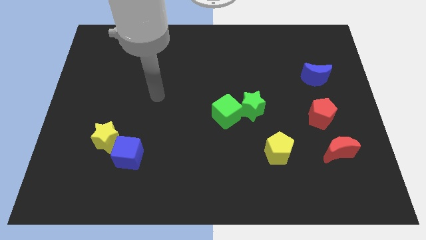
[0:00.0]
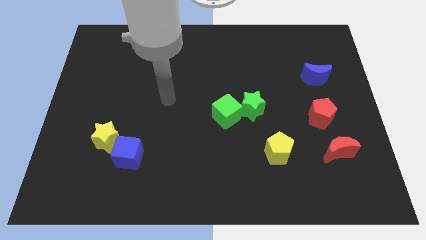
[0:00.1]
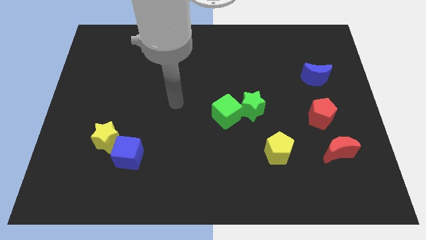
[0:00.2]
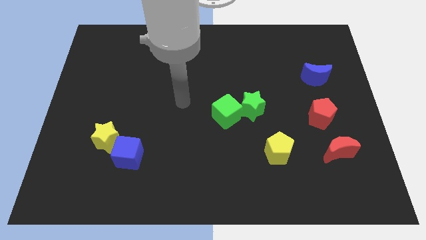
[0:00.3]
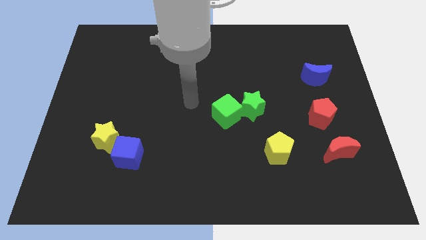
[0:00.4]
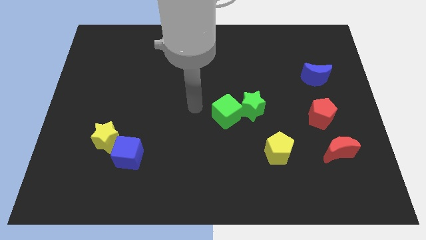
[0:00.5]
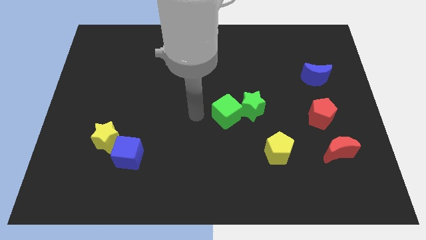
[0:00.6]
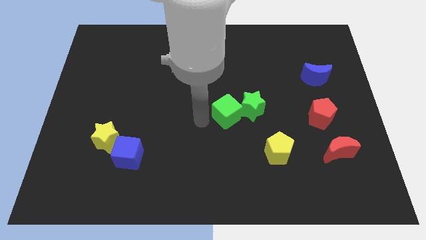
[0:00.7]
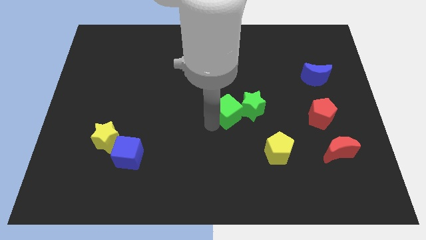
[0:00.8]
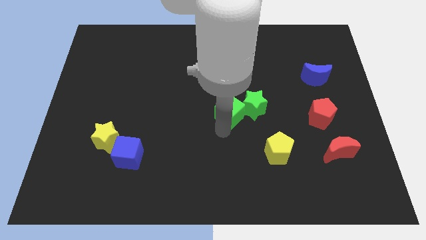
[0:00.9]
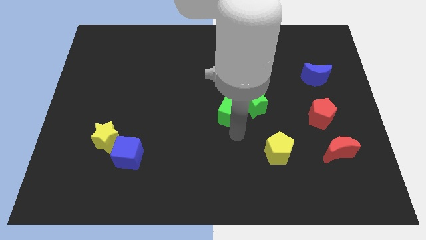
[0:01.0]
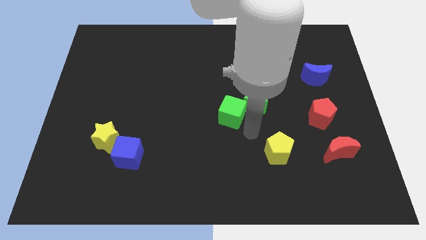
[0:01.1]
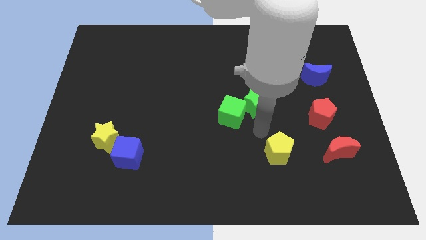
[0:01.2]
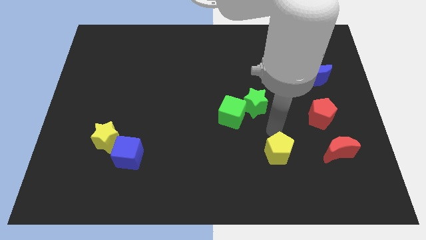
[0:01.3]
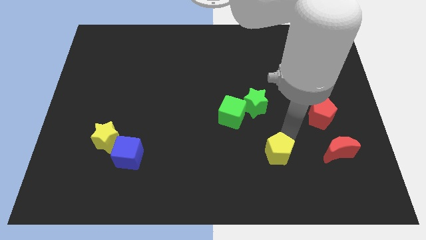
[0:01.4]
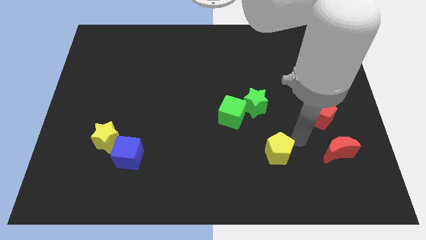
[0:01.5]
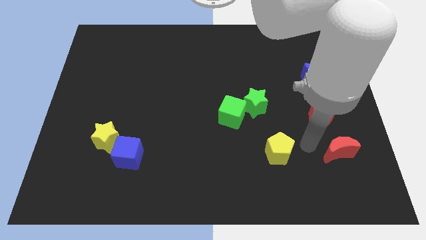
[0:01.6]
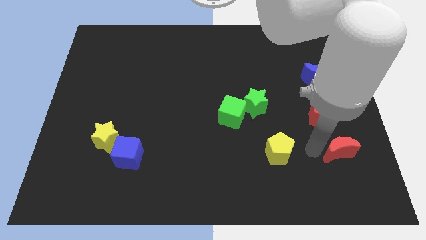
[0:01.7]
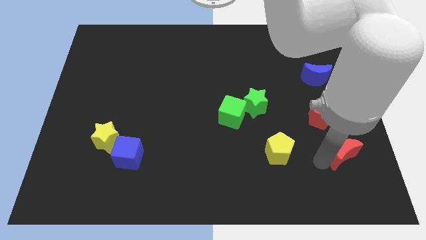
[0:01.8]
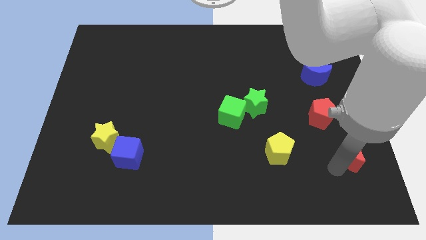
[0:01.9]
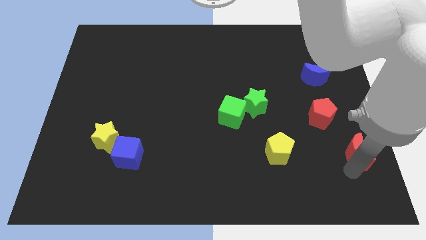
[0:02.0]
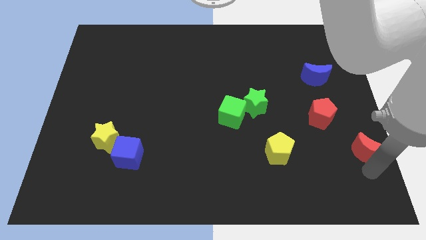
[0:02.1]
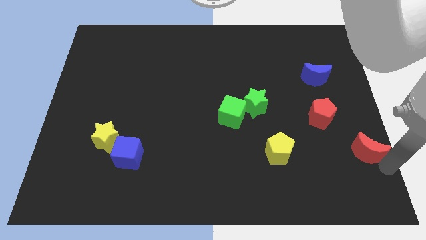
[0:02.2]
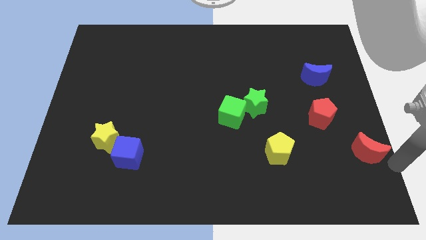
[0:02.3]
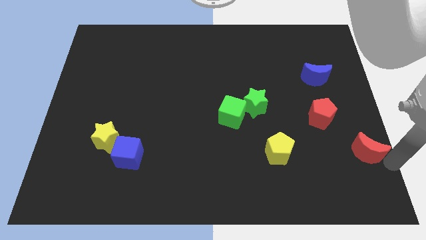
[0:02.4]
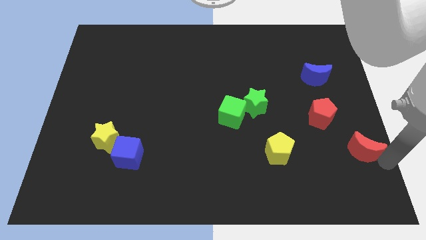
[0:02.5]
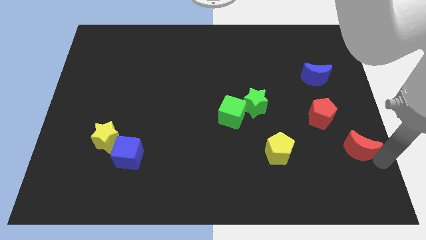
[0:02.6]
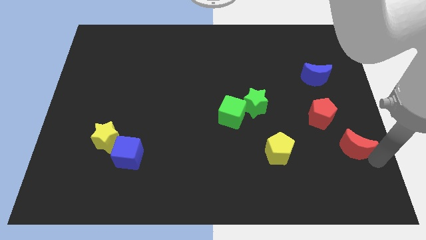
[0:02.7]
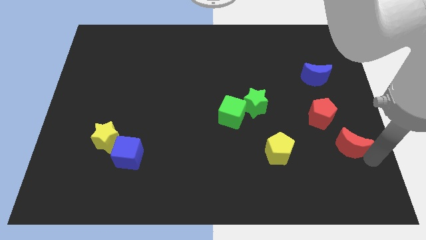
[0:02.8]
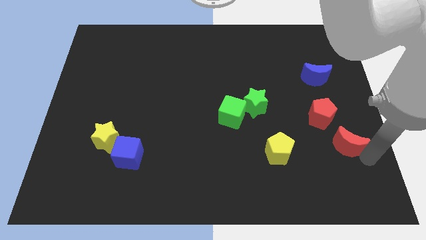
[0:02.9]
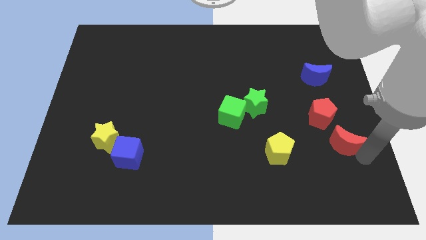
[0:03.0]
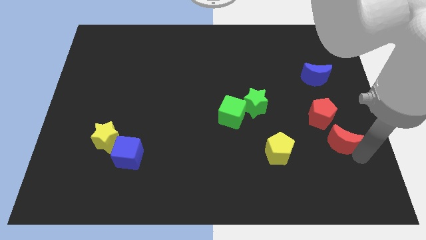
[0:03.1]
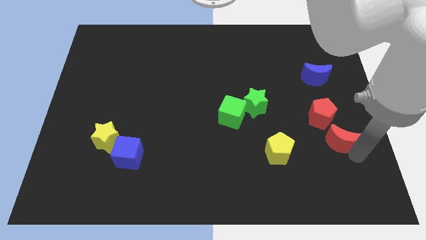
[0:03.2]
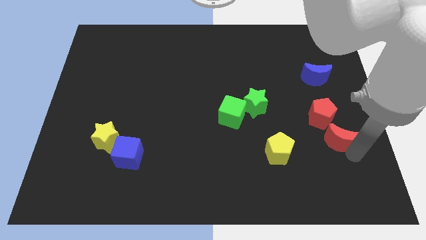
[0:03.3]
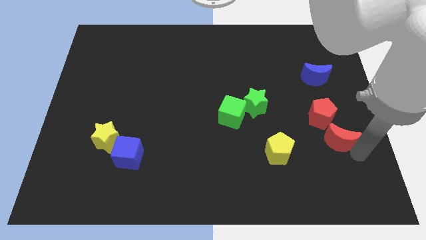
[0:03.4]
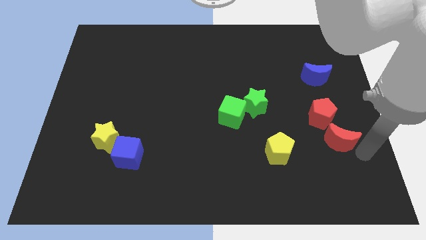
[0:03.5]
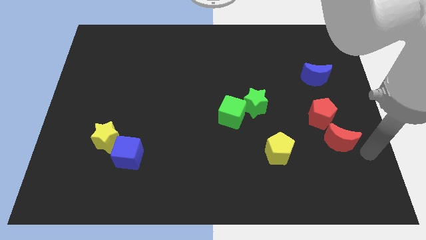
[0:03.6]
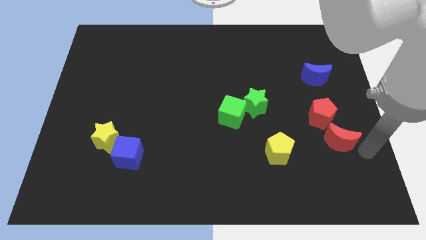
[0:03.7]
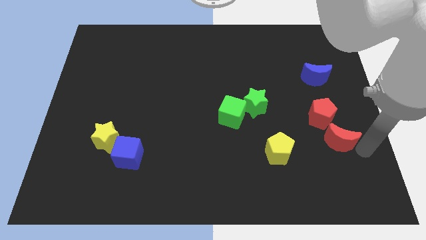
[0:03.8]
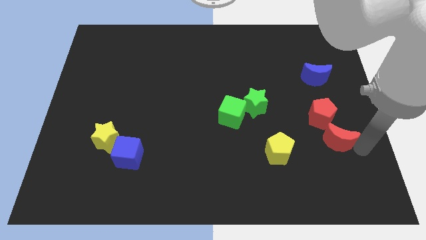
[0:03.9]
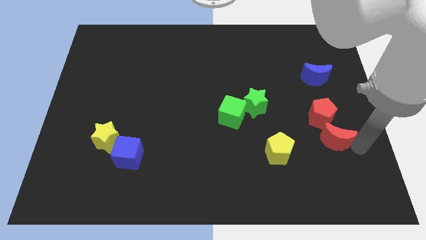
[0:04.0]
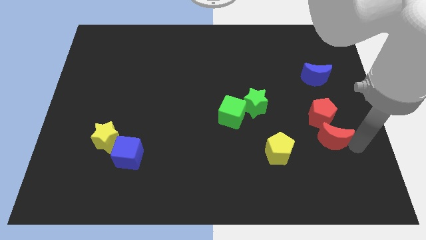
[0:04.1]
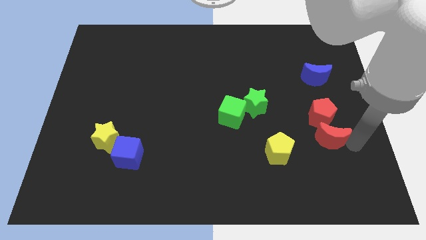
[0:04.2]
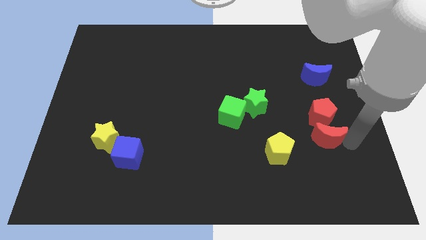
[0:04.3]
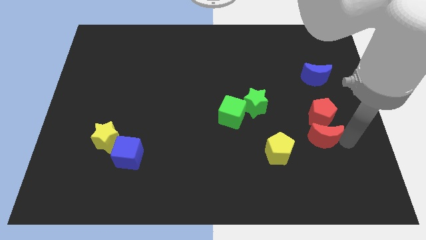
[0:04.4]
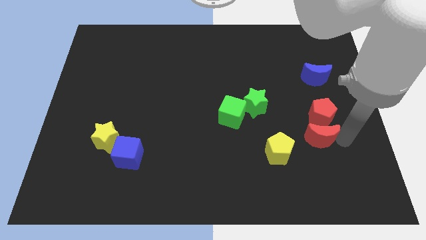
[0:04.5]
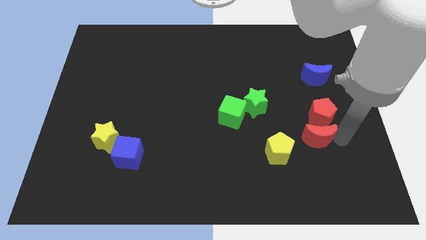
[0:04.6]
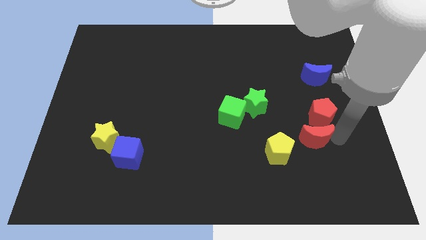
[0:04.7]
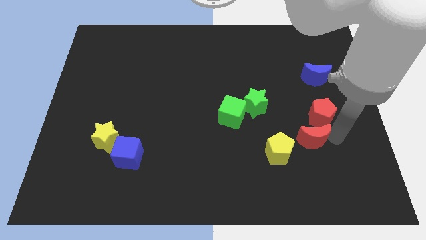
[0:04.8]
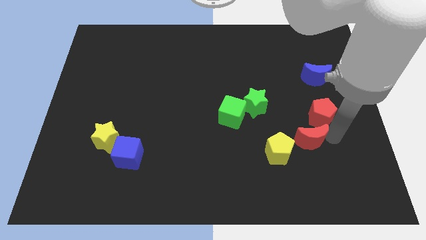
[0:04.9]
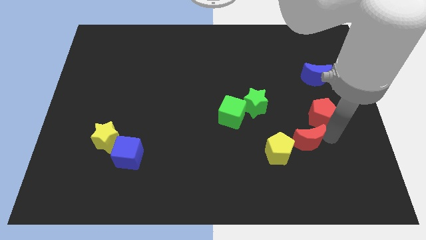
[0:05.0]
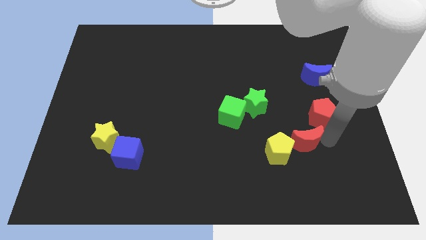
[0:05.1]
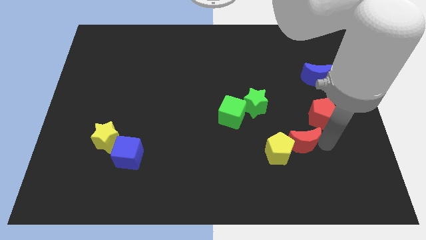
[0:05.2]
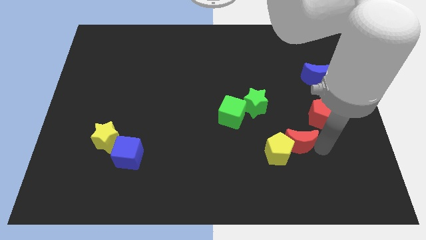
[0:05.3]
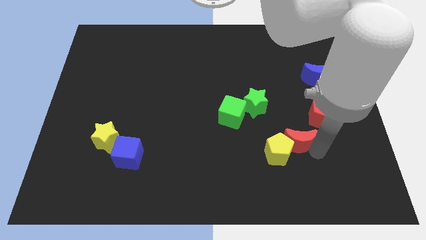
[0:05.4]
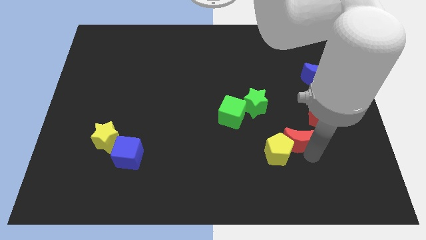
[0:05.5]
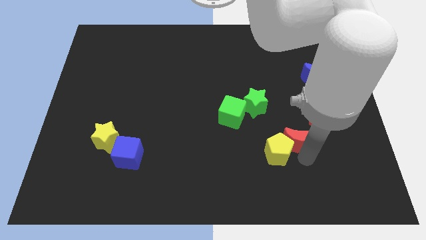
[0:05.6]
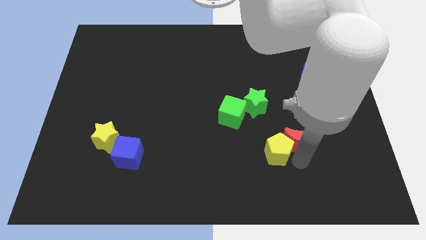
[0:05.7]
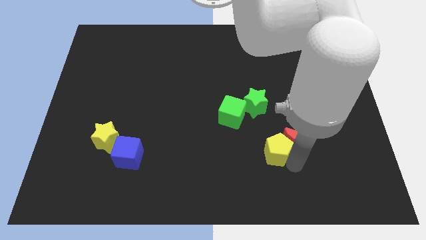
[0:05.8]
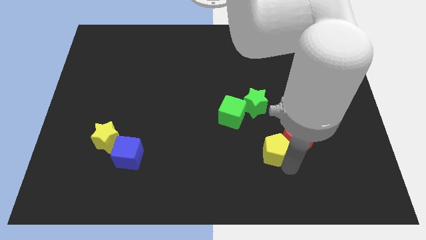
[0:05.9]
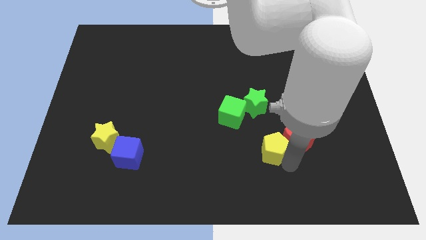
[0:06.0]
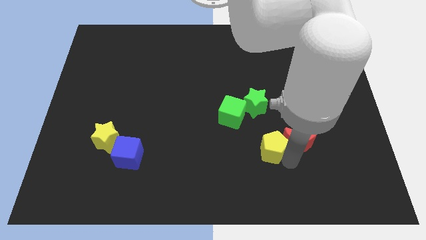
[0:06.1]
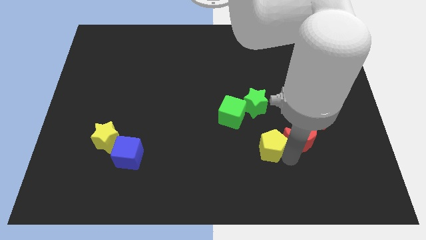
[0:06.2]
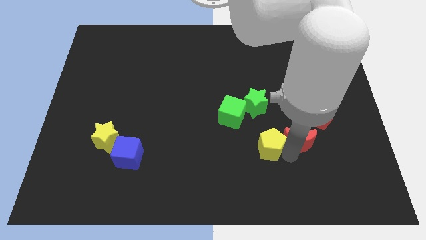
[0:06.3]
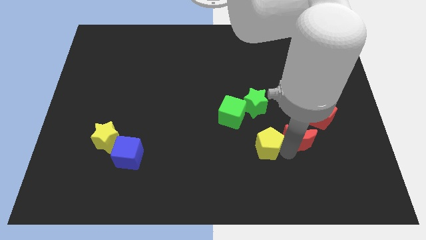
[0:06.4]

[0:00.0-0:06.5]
slightly move the red moon diagonally up and to the left

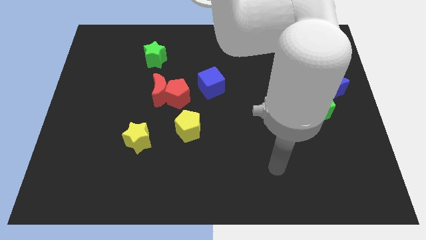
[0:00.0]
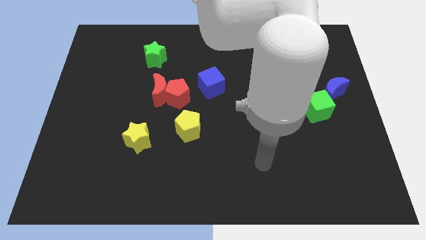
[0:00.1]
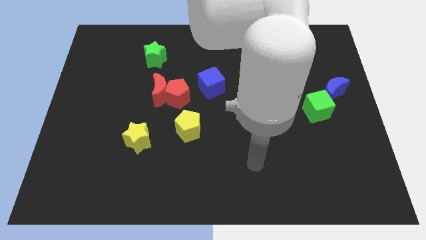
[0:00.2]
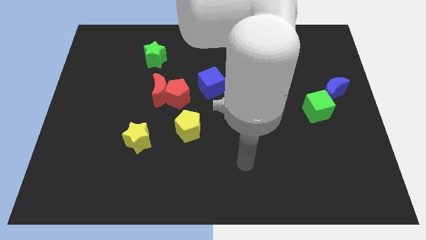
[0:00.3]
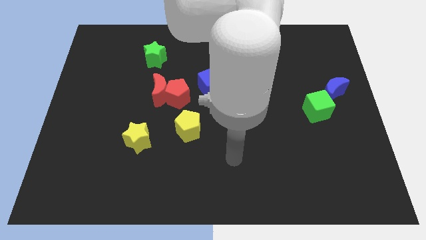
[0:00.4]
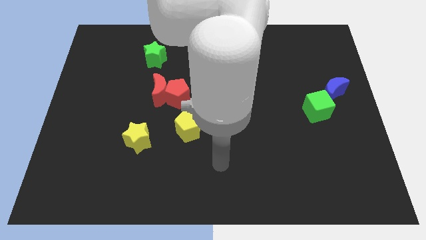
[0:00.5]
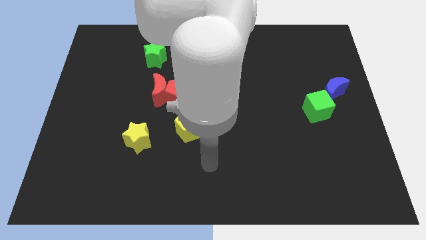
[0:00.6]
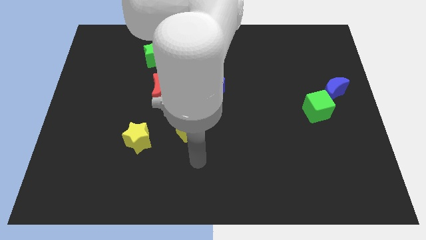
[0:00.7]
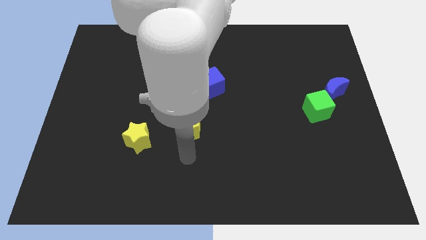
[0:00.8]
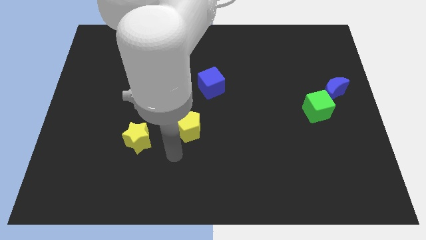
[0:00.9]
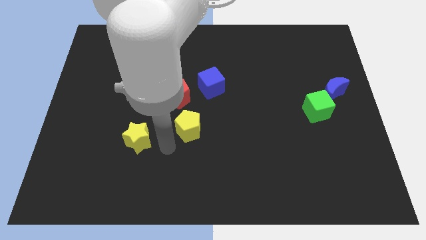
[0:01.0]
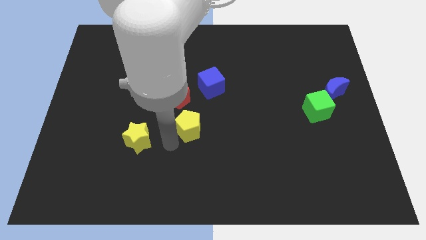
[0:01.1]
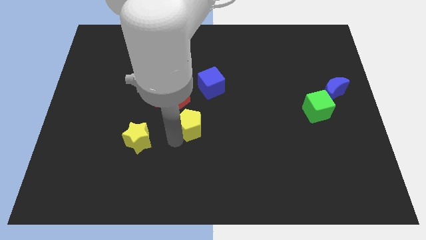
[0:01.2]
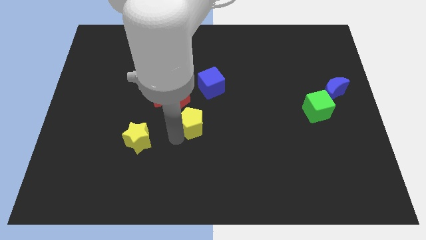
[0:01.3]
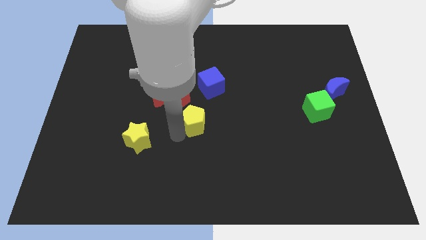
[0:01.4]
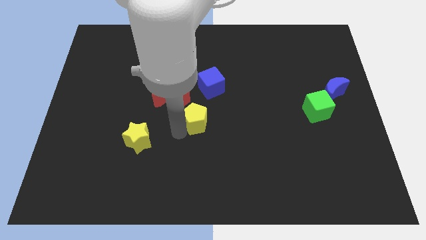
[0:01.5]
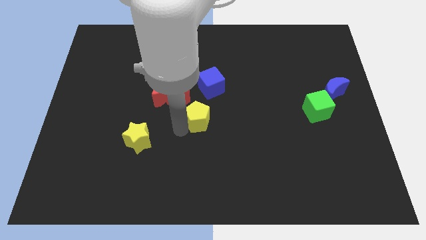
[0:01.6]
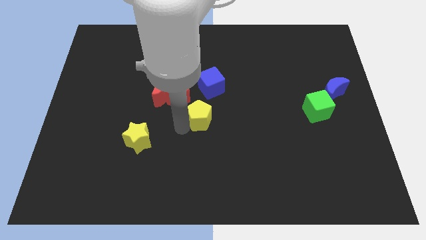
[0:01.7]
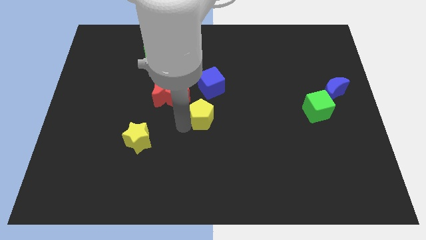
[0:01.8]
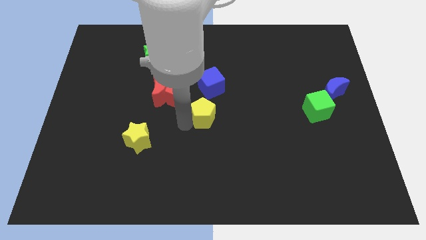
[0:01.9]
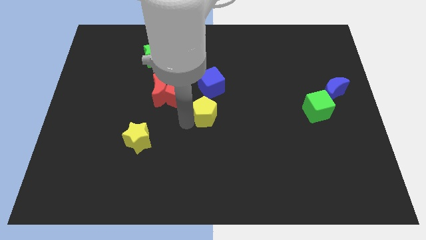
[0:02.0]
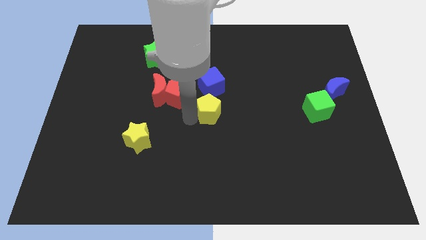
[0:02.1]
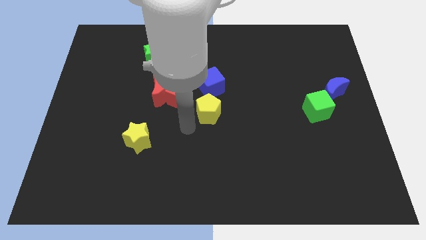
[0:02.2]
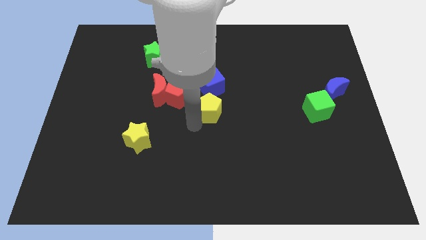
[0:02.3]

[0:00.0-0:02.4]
slightly slide the yellow pentagon upwards and to the right diagonally
